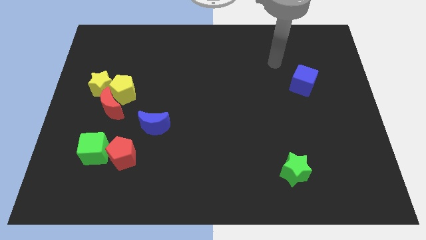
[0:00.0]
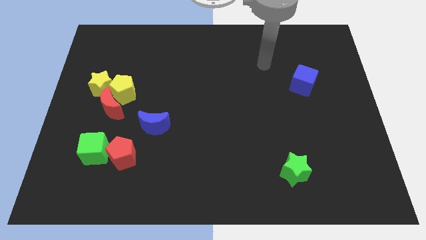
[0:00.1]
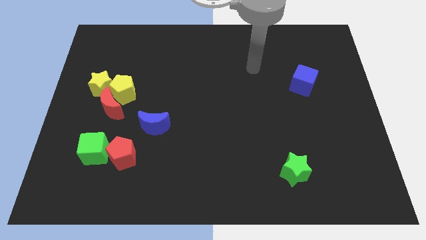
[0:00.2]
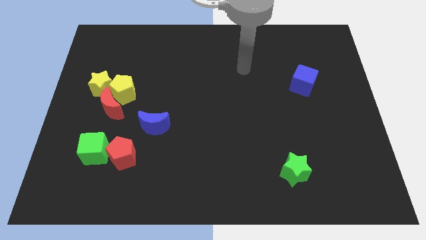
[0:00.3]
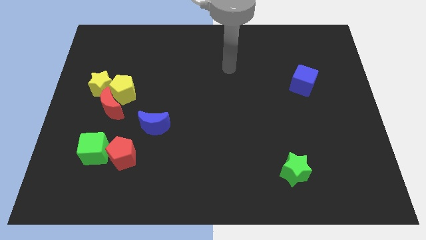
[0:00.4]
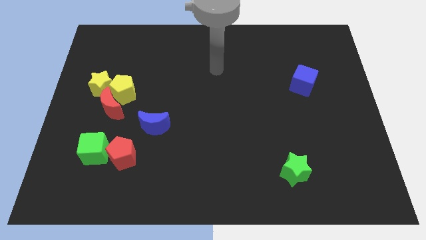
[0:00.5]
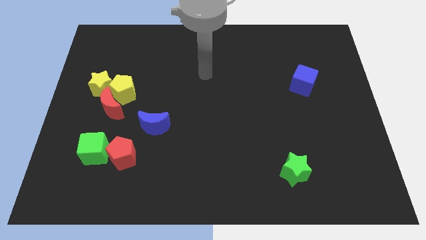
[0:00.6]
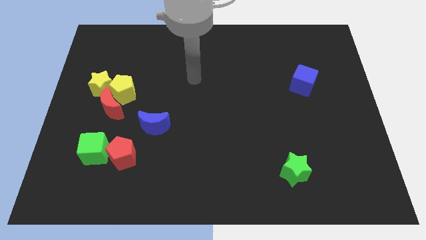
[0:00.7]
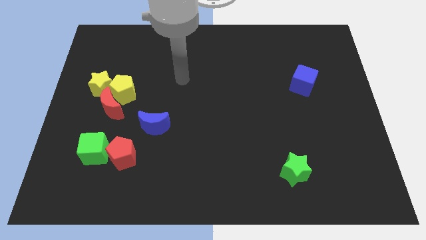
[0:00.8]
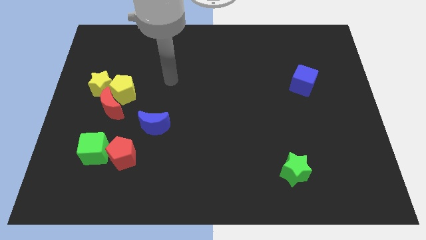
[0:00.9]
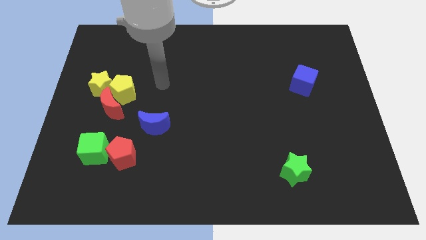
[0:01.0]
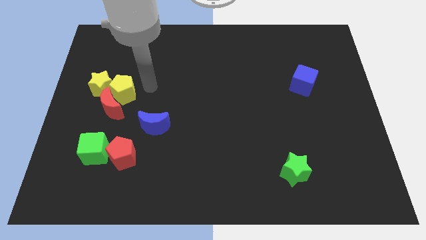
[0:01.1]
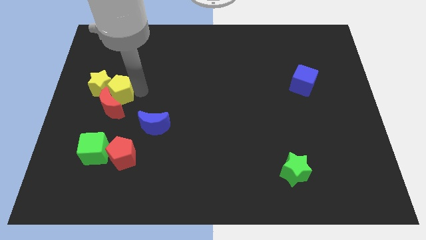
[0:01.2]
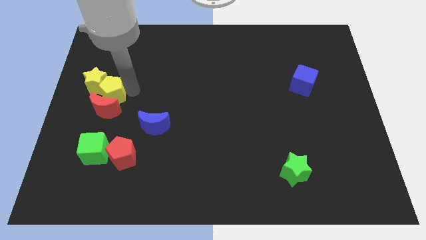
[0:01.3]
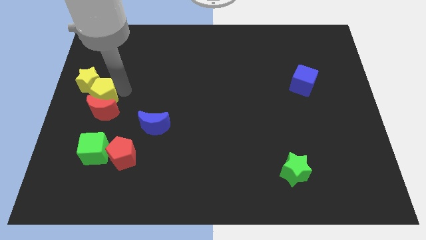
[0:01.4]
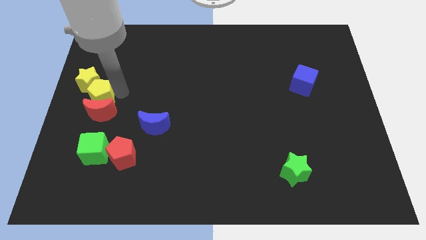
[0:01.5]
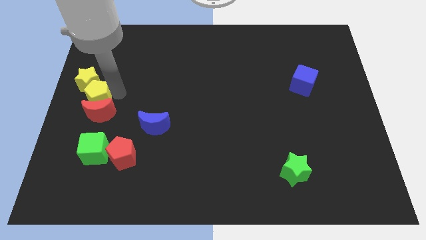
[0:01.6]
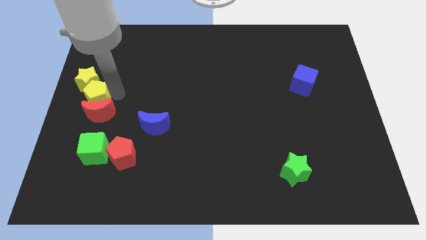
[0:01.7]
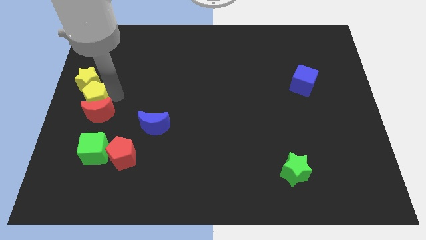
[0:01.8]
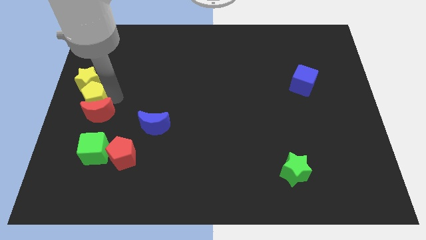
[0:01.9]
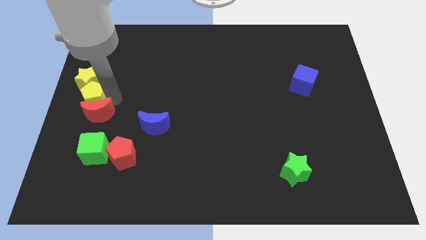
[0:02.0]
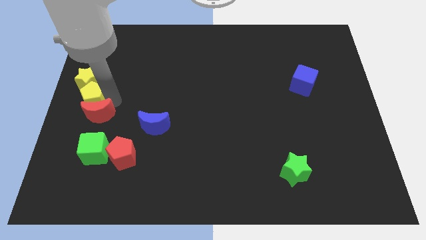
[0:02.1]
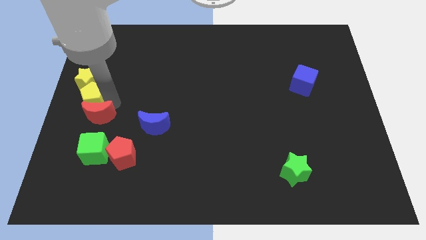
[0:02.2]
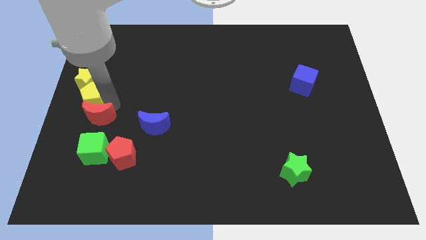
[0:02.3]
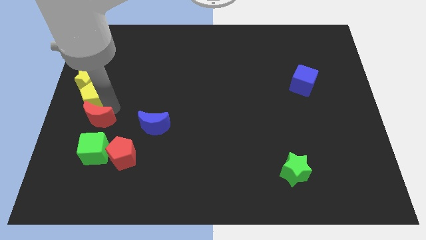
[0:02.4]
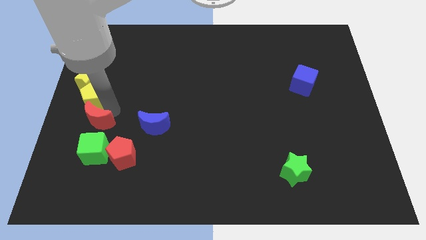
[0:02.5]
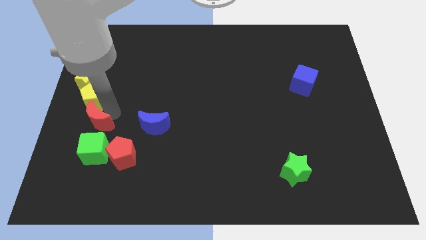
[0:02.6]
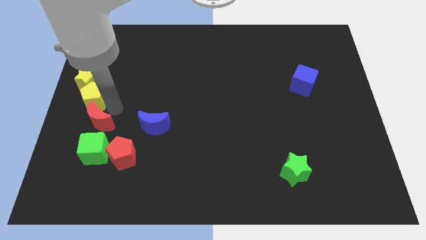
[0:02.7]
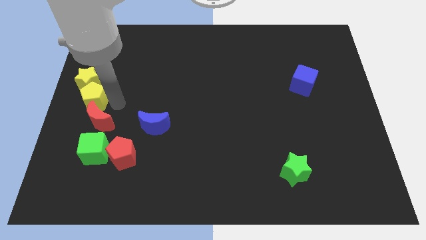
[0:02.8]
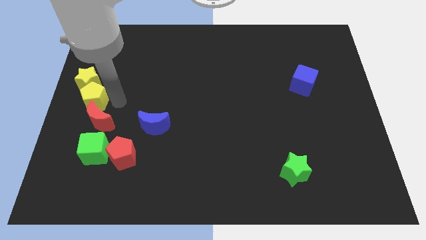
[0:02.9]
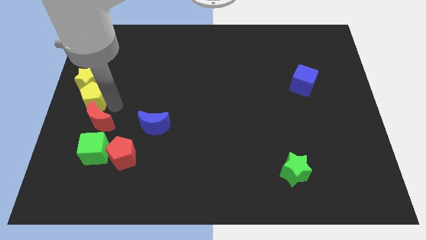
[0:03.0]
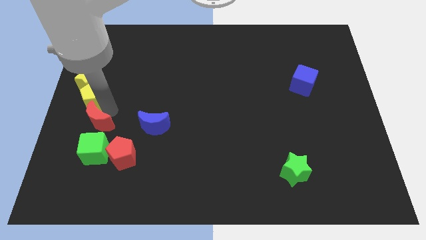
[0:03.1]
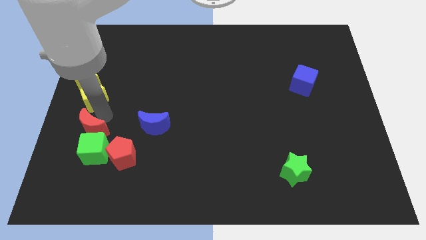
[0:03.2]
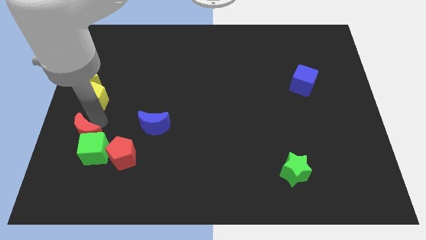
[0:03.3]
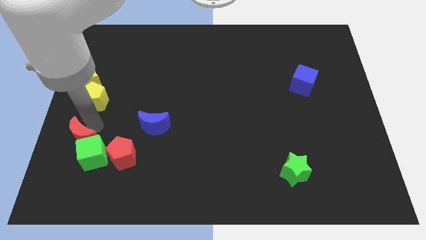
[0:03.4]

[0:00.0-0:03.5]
move the red moon downwards slightly

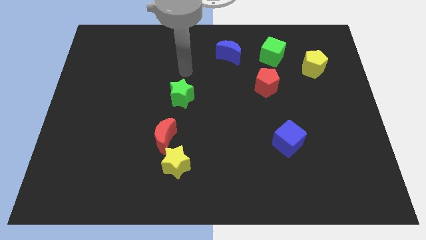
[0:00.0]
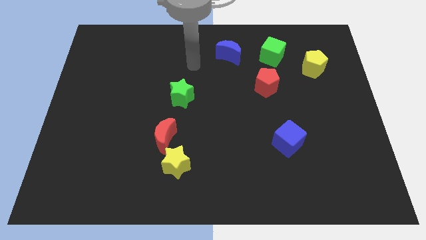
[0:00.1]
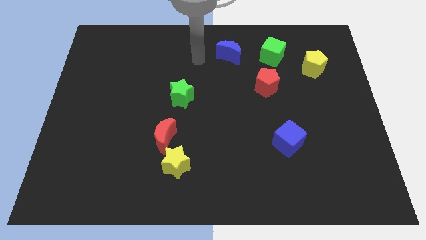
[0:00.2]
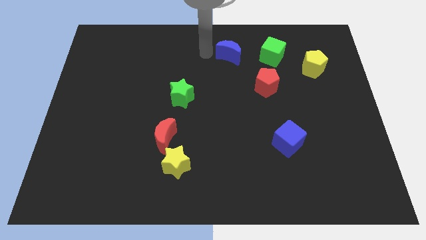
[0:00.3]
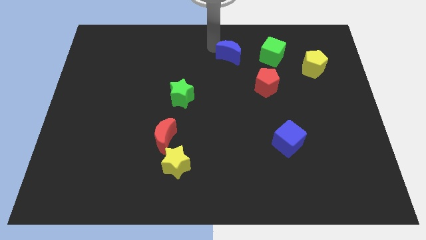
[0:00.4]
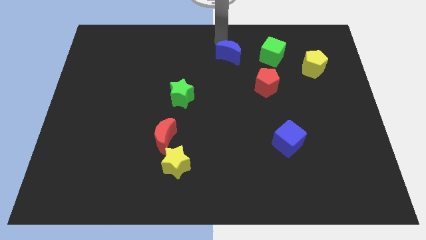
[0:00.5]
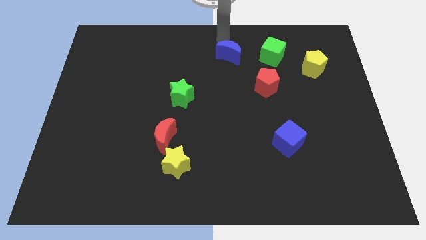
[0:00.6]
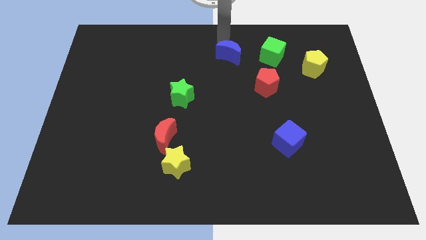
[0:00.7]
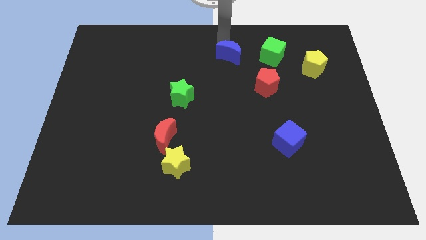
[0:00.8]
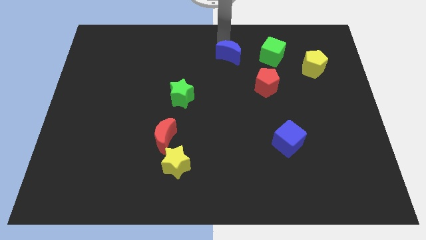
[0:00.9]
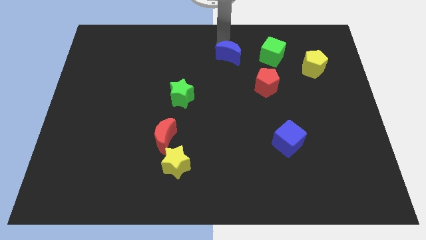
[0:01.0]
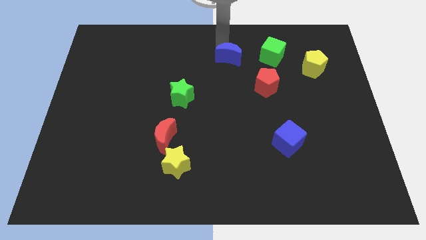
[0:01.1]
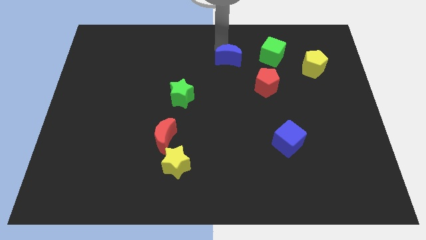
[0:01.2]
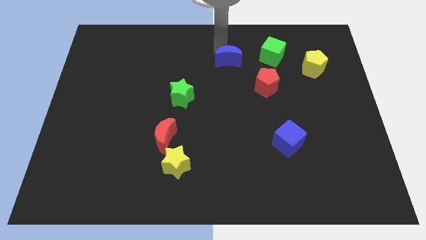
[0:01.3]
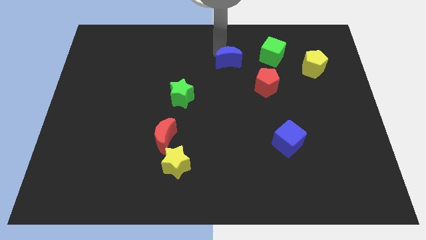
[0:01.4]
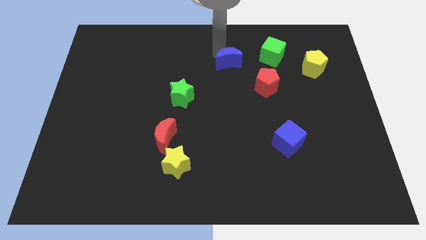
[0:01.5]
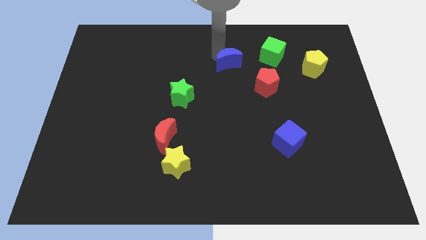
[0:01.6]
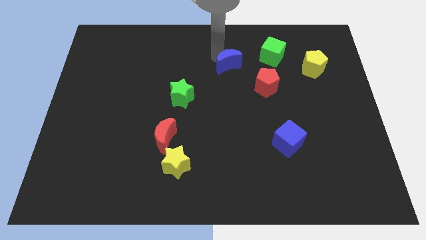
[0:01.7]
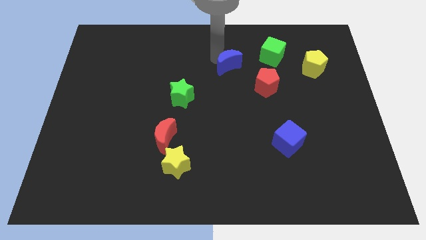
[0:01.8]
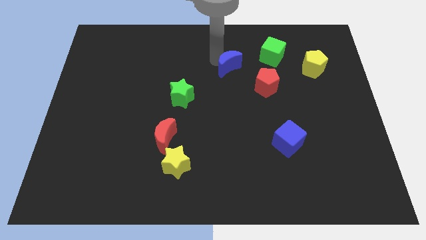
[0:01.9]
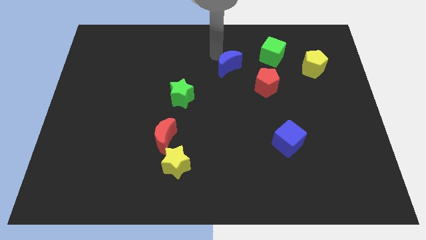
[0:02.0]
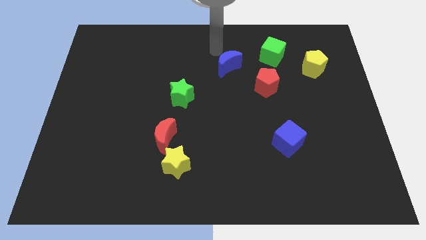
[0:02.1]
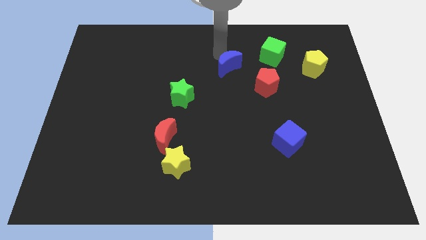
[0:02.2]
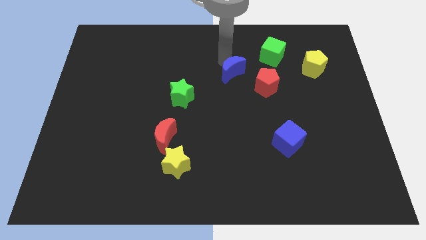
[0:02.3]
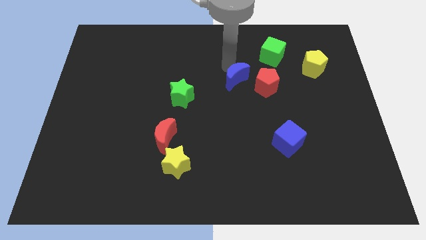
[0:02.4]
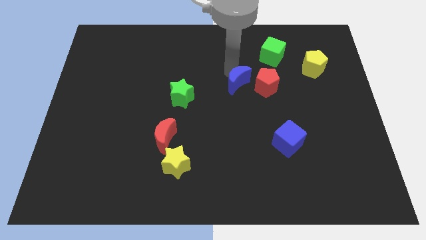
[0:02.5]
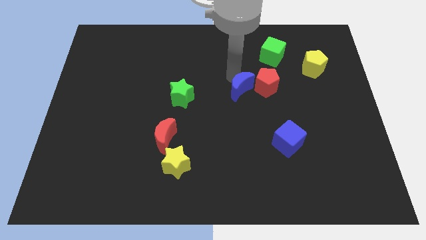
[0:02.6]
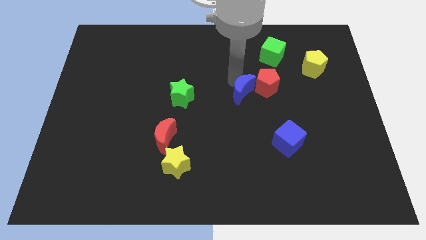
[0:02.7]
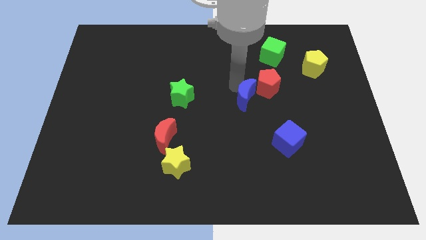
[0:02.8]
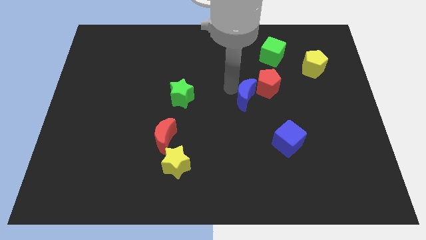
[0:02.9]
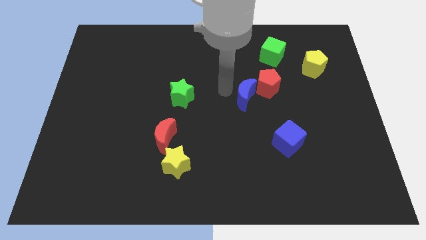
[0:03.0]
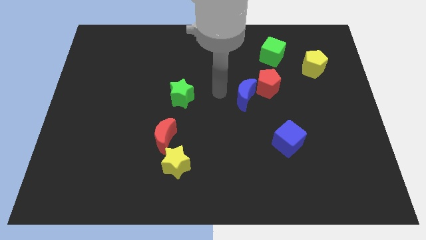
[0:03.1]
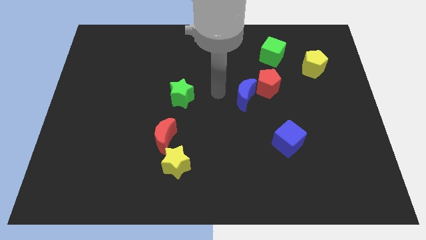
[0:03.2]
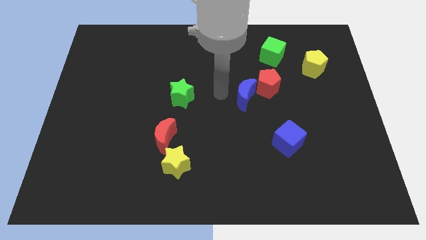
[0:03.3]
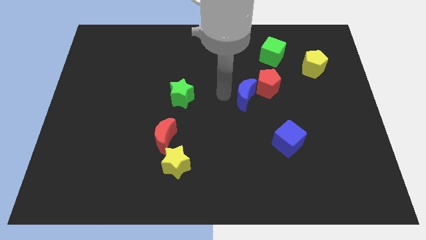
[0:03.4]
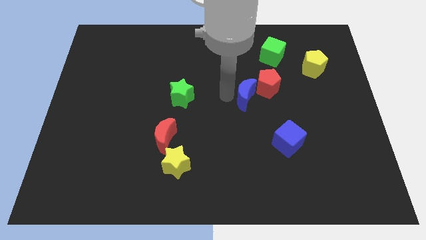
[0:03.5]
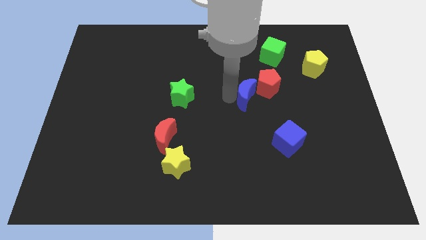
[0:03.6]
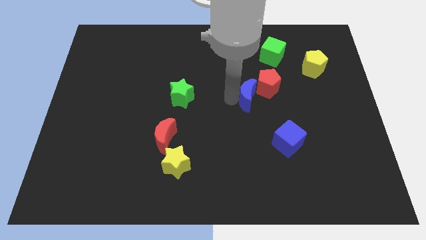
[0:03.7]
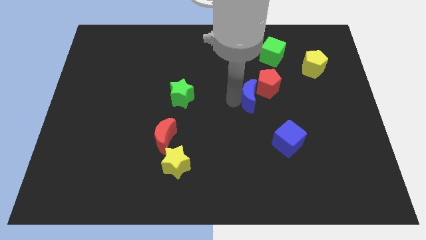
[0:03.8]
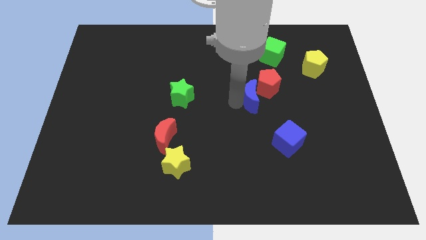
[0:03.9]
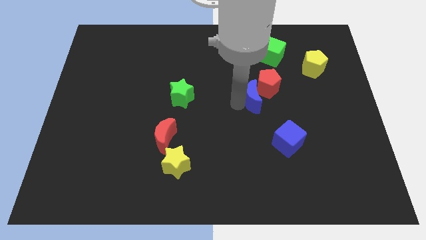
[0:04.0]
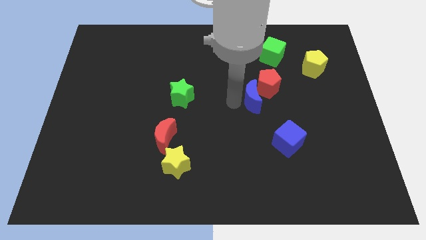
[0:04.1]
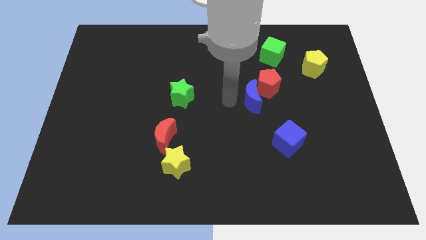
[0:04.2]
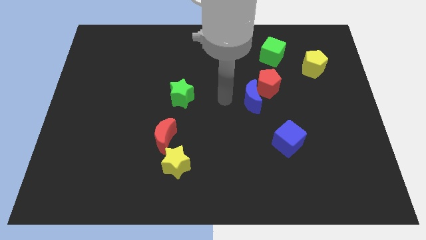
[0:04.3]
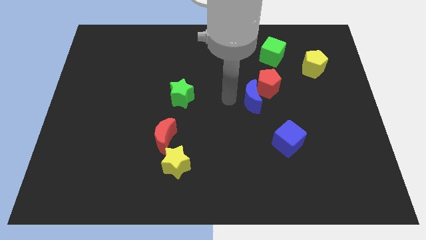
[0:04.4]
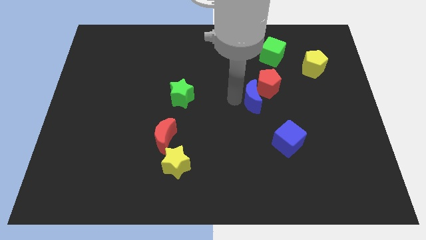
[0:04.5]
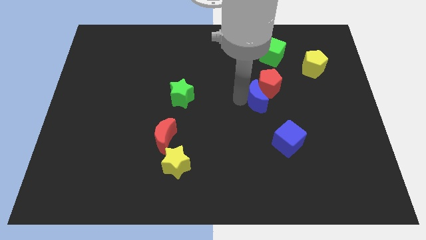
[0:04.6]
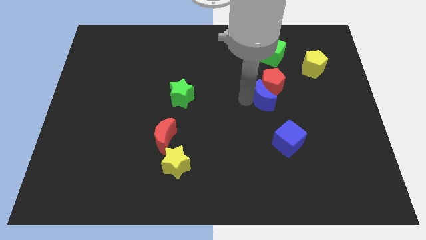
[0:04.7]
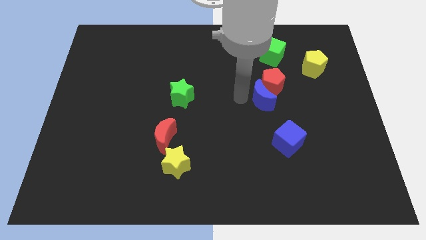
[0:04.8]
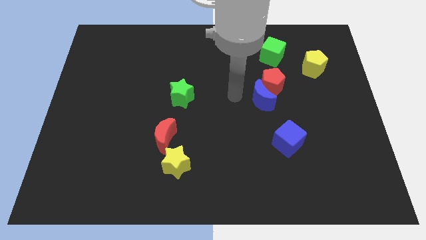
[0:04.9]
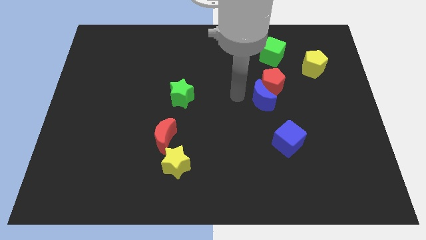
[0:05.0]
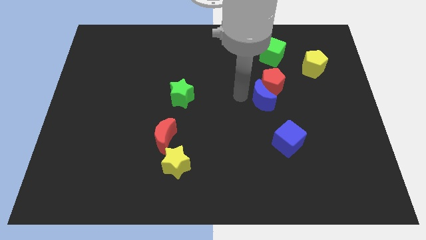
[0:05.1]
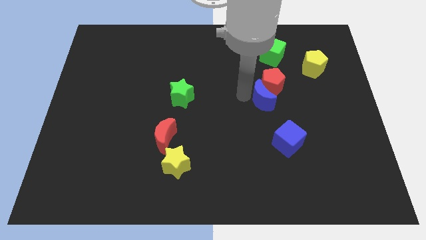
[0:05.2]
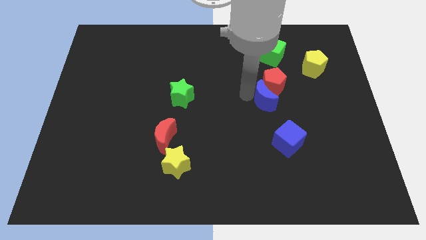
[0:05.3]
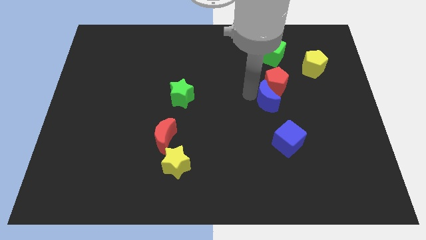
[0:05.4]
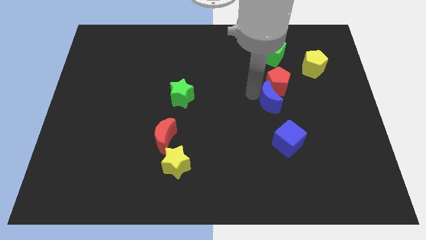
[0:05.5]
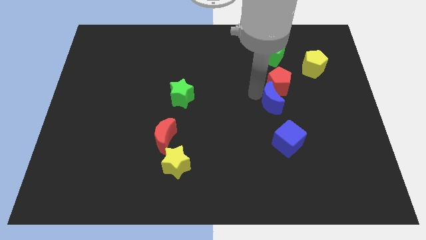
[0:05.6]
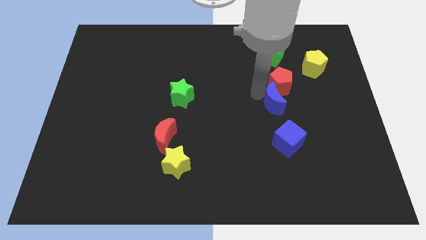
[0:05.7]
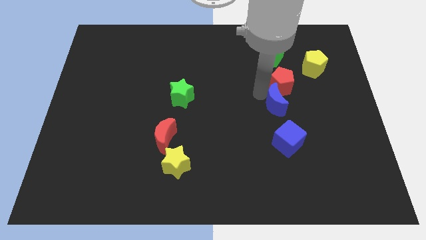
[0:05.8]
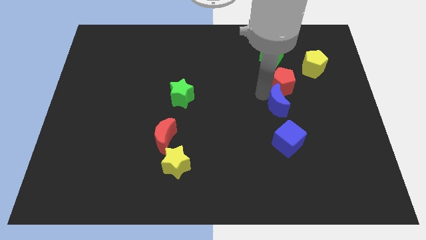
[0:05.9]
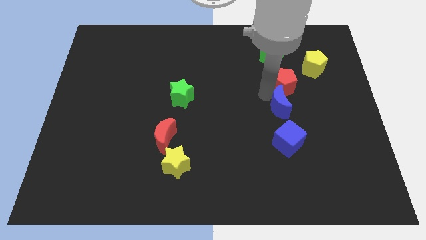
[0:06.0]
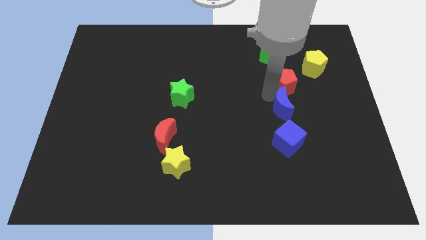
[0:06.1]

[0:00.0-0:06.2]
slide the blue moon downwards and to the right
